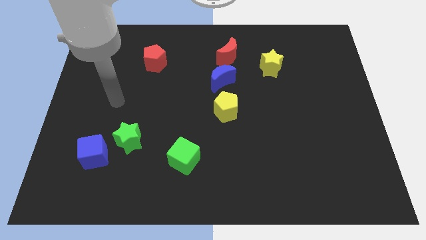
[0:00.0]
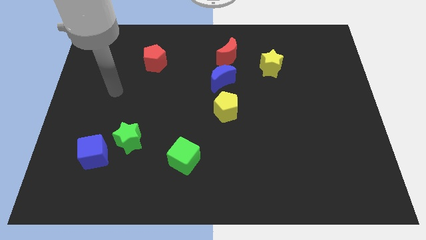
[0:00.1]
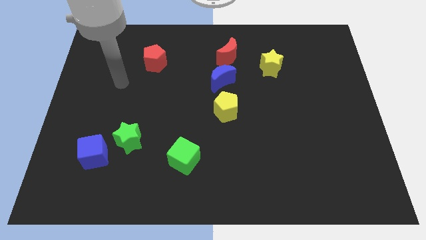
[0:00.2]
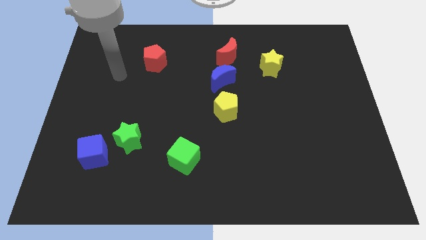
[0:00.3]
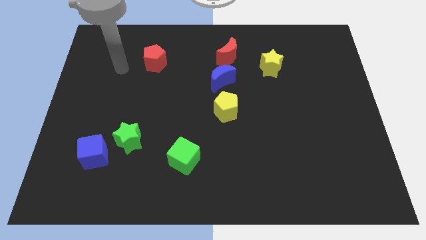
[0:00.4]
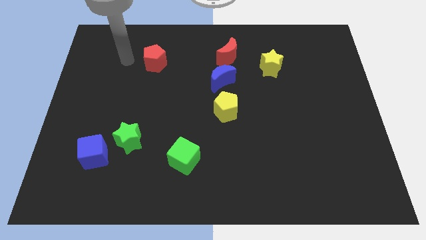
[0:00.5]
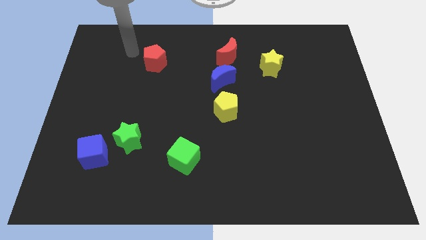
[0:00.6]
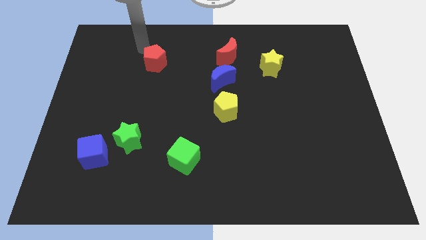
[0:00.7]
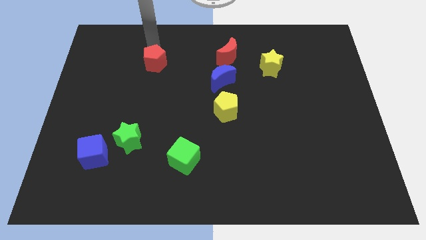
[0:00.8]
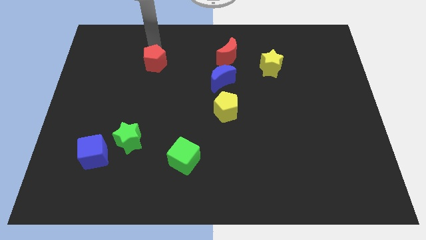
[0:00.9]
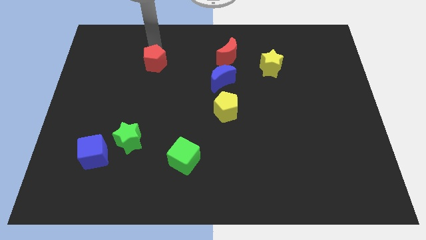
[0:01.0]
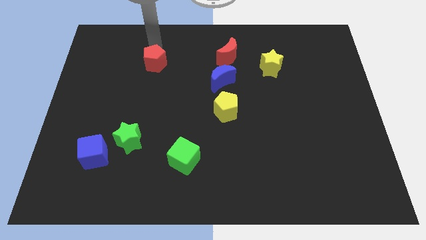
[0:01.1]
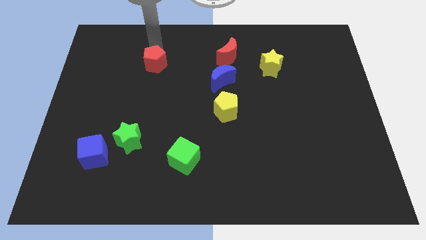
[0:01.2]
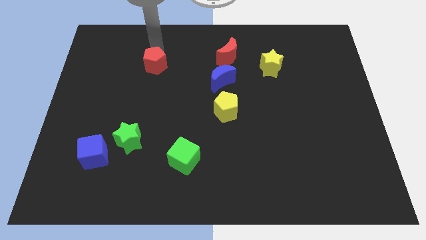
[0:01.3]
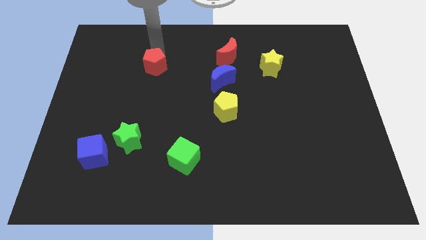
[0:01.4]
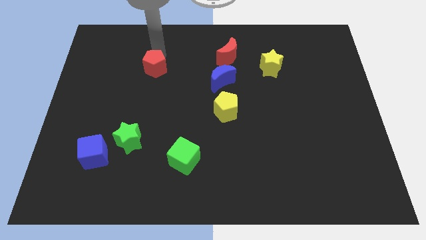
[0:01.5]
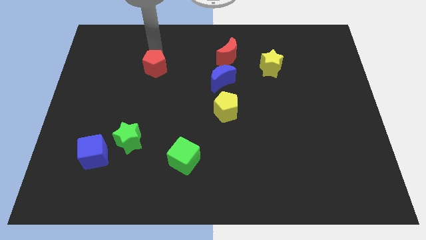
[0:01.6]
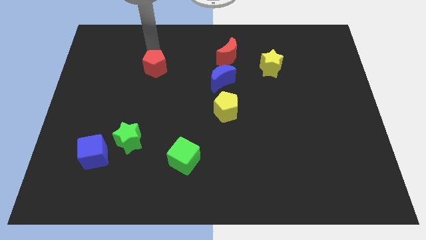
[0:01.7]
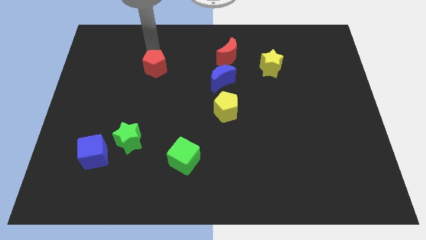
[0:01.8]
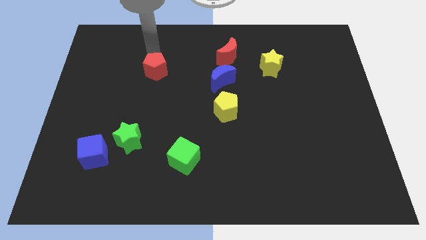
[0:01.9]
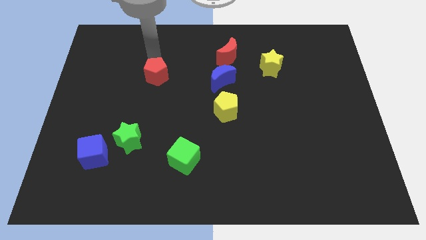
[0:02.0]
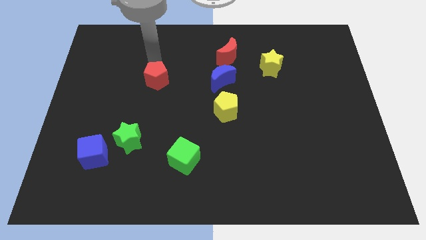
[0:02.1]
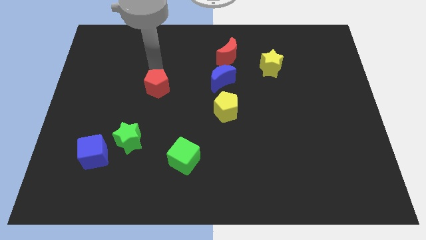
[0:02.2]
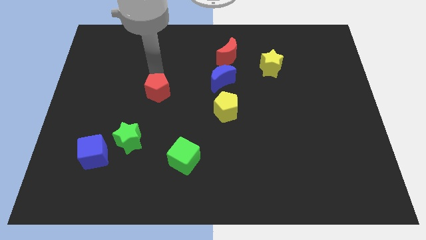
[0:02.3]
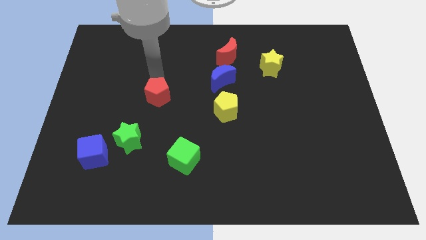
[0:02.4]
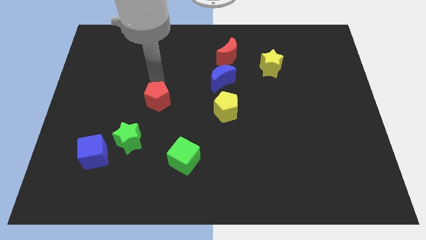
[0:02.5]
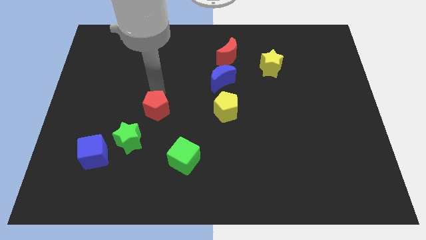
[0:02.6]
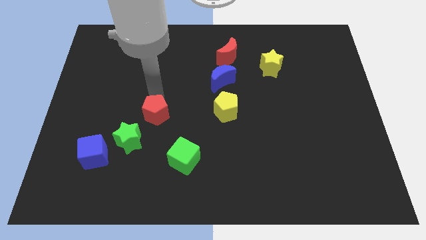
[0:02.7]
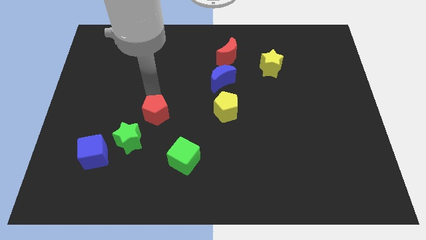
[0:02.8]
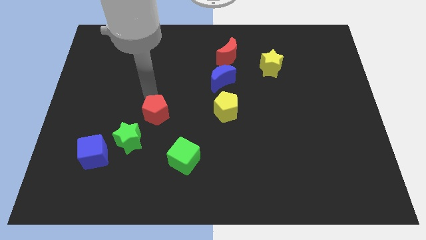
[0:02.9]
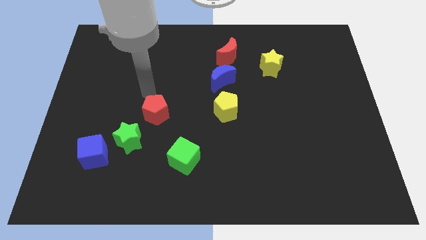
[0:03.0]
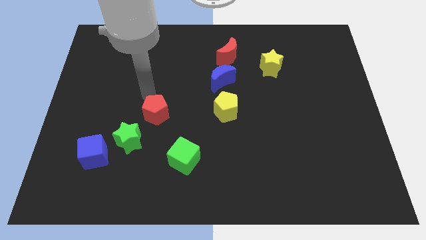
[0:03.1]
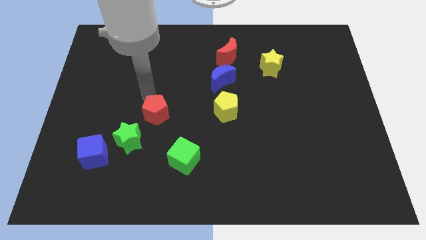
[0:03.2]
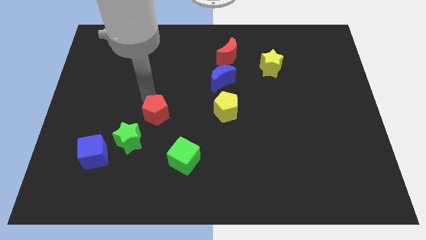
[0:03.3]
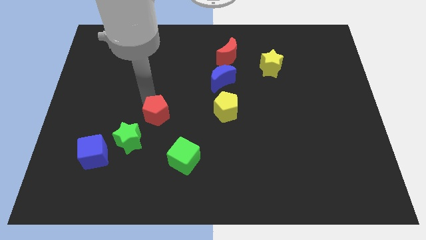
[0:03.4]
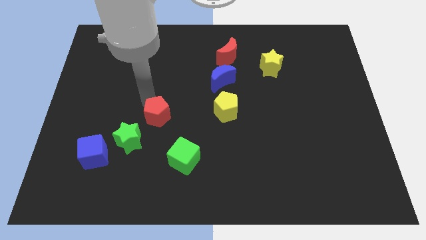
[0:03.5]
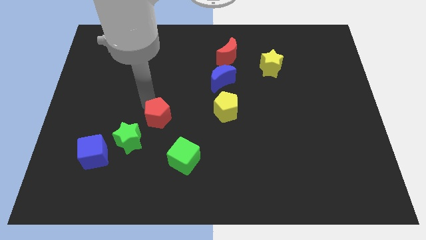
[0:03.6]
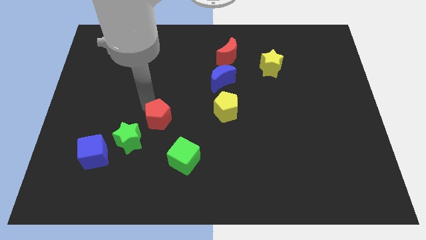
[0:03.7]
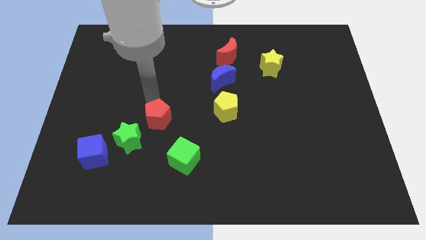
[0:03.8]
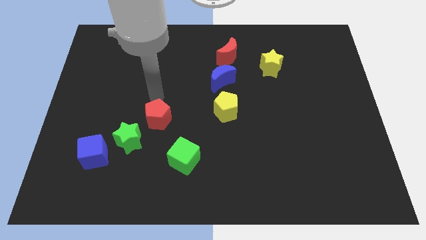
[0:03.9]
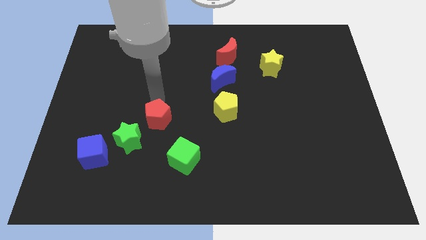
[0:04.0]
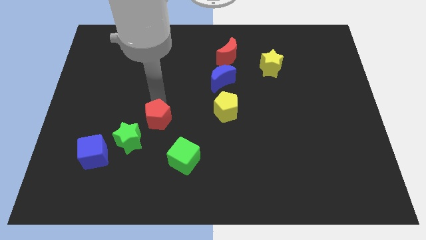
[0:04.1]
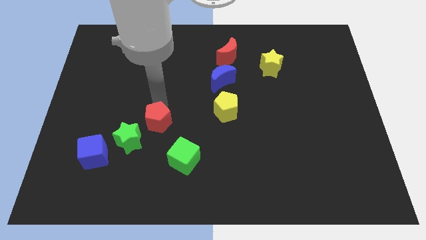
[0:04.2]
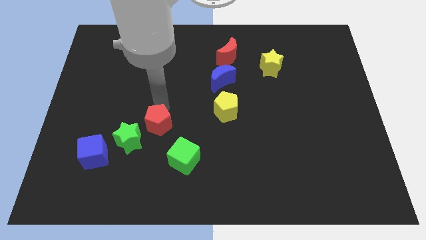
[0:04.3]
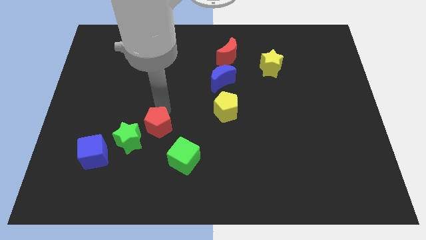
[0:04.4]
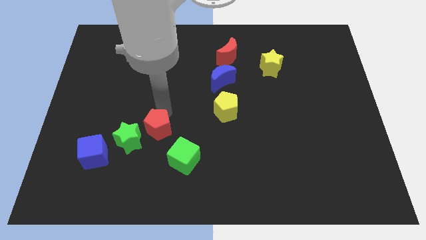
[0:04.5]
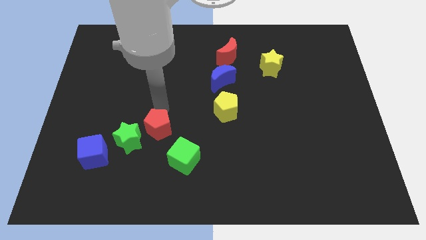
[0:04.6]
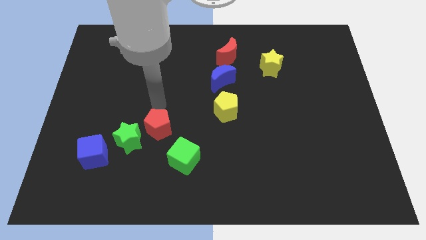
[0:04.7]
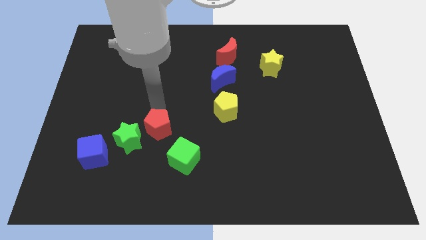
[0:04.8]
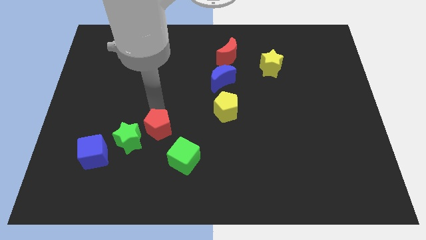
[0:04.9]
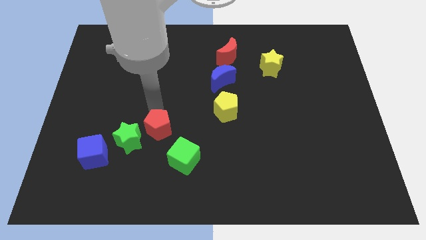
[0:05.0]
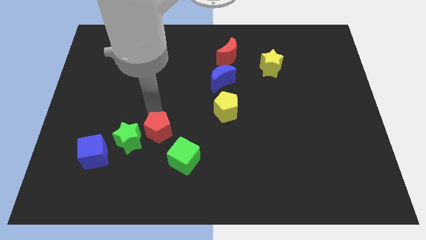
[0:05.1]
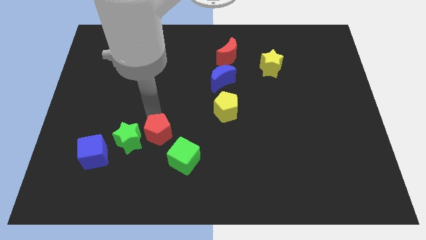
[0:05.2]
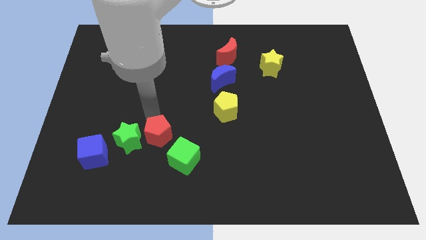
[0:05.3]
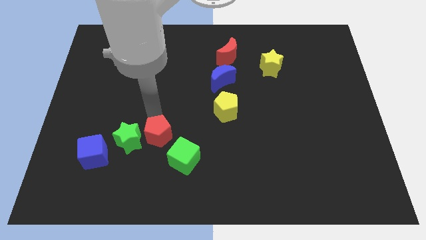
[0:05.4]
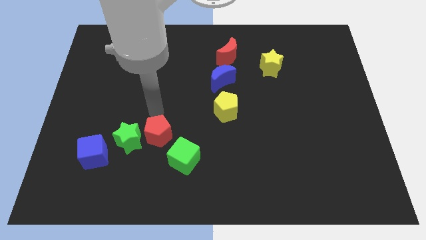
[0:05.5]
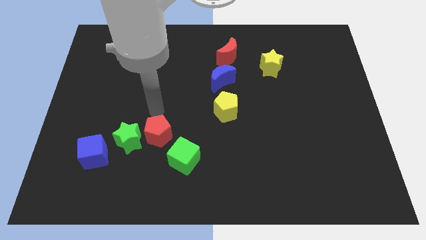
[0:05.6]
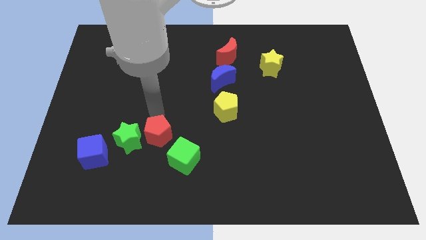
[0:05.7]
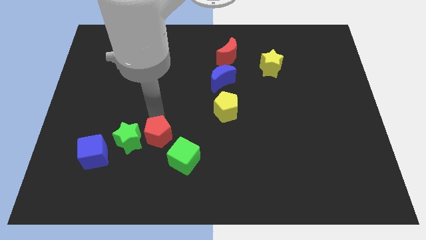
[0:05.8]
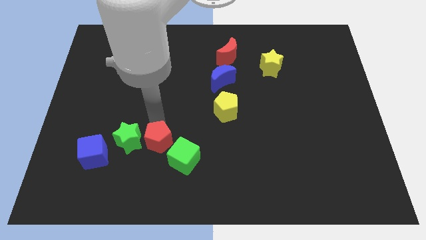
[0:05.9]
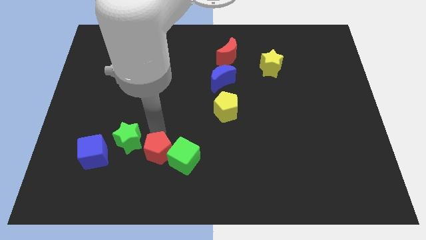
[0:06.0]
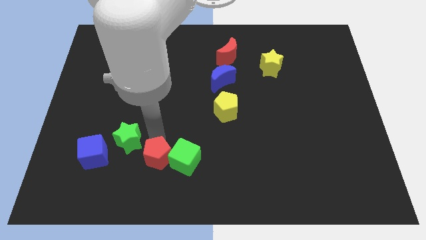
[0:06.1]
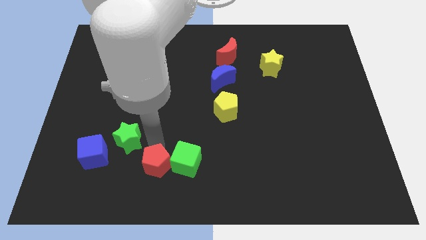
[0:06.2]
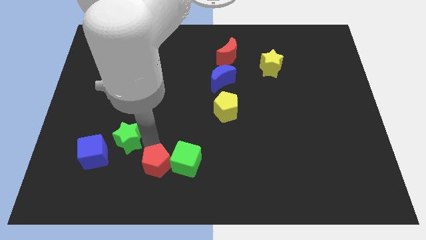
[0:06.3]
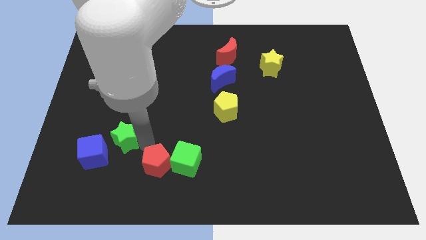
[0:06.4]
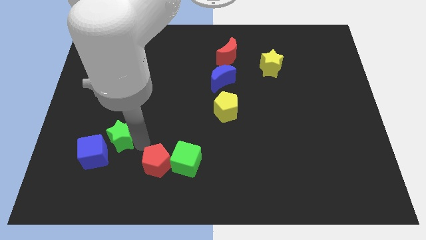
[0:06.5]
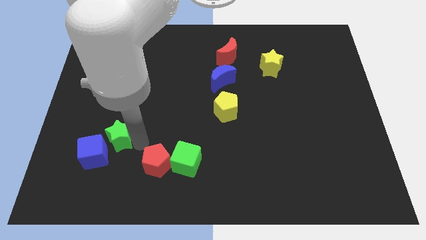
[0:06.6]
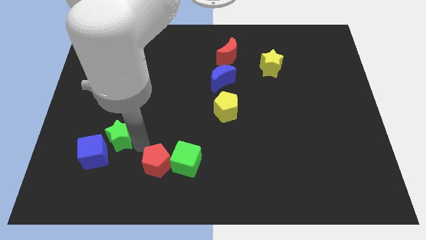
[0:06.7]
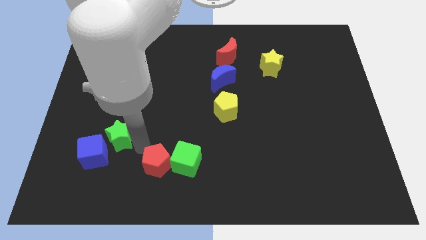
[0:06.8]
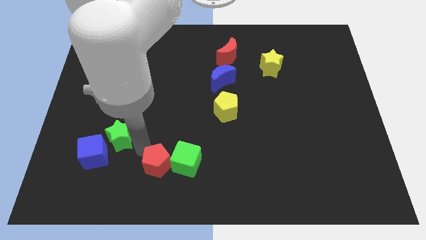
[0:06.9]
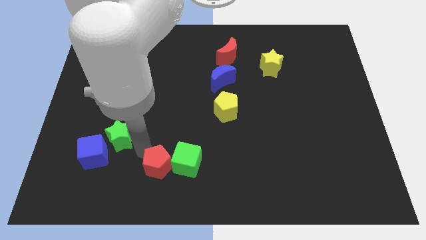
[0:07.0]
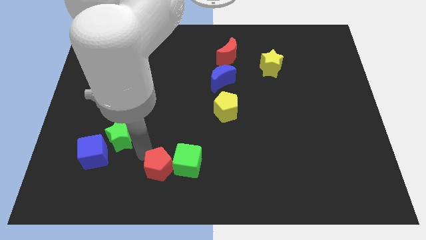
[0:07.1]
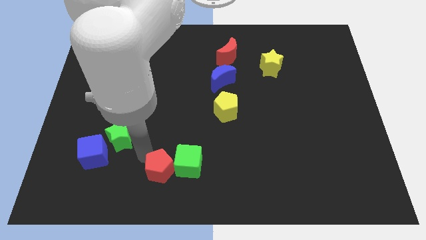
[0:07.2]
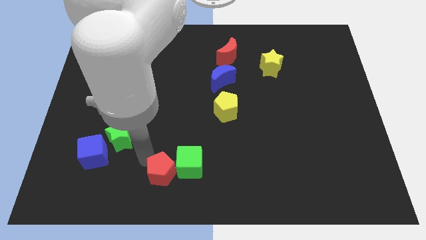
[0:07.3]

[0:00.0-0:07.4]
move the red pentagon to the bottom
